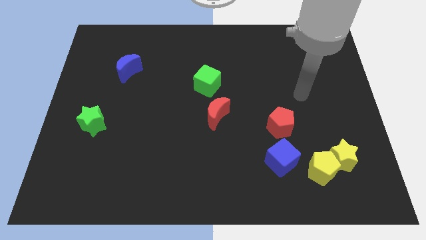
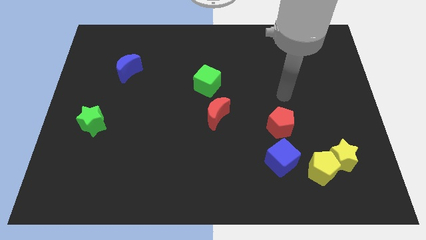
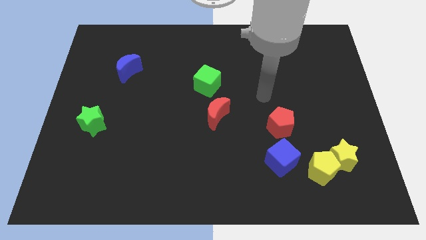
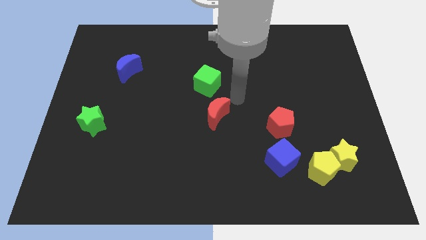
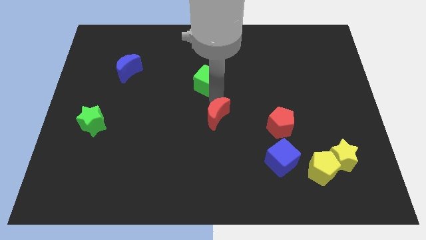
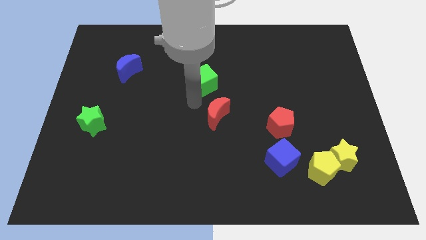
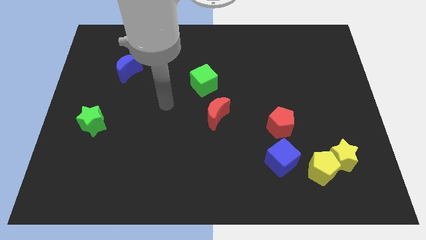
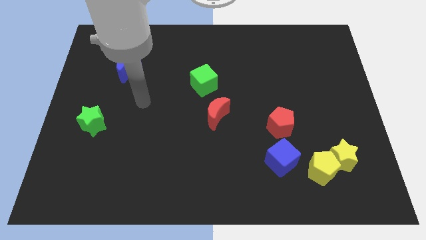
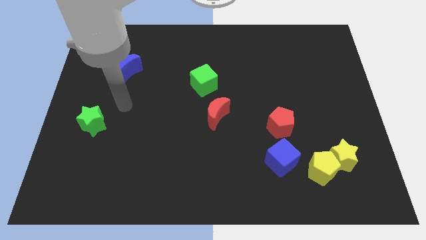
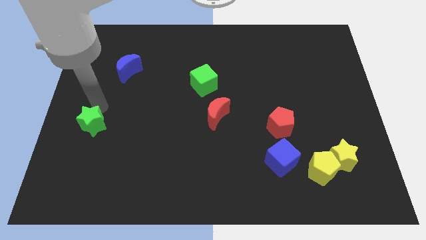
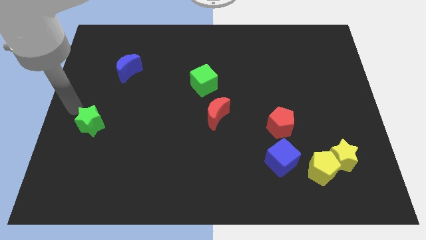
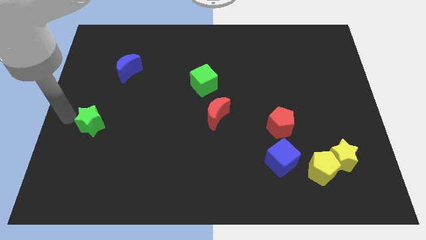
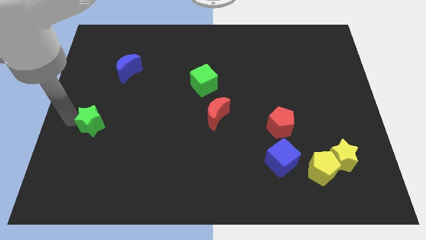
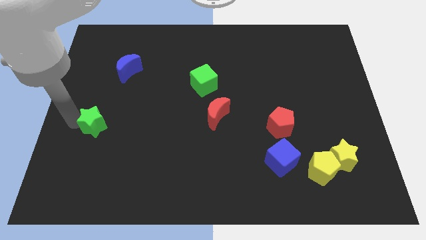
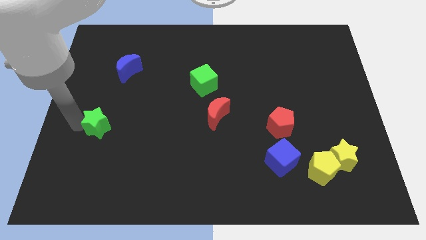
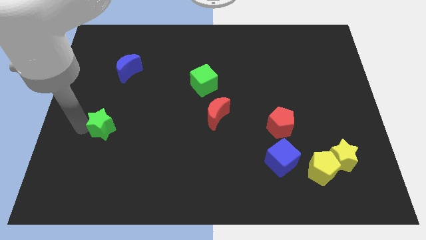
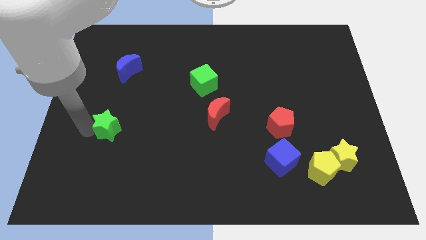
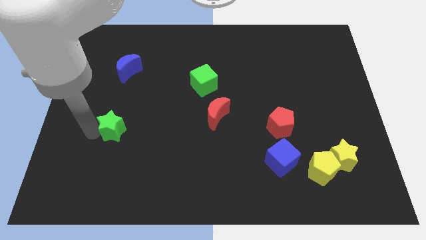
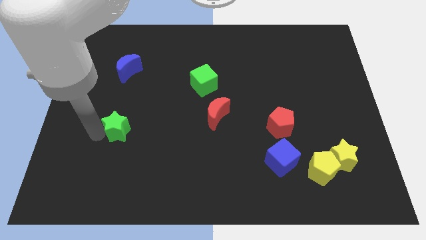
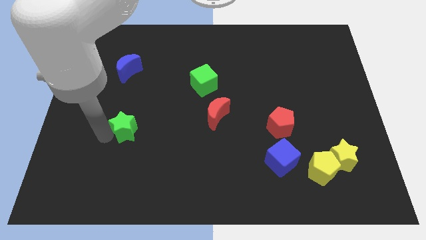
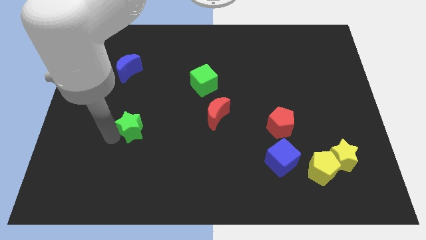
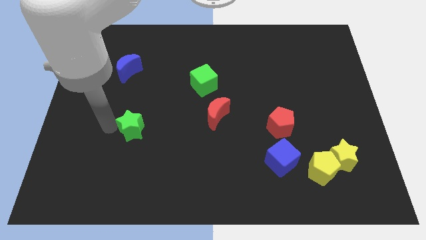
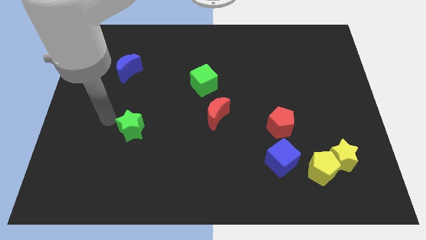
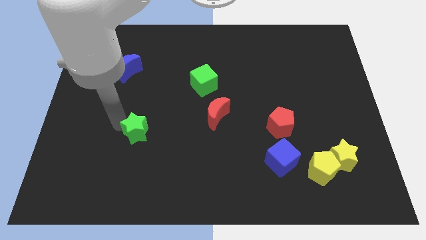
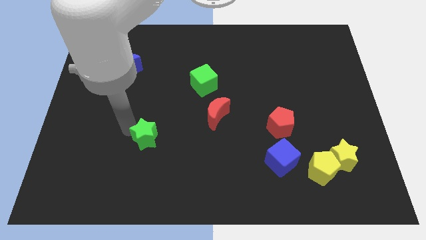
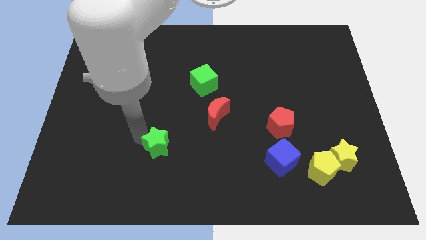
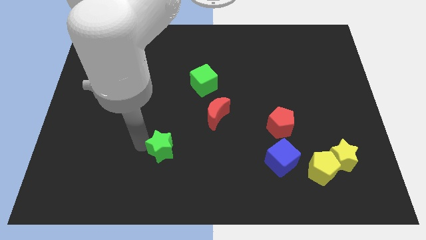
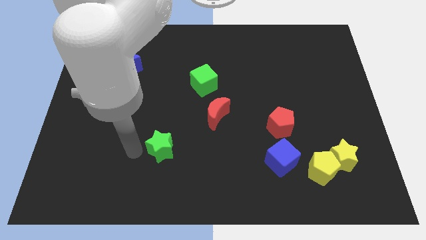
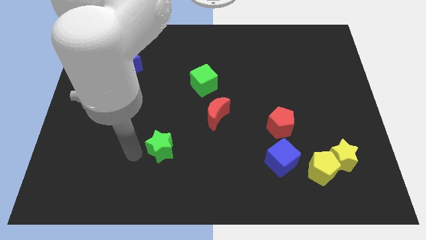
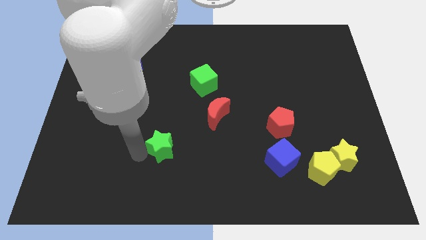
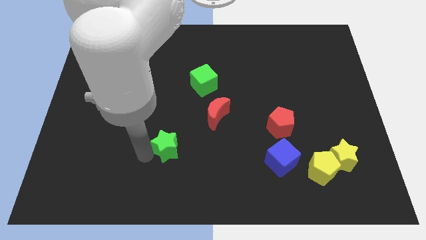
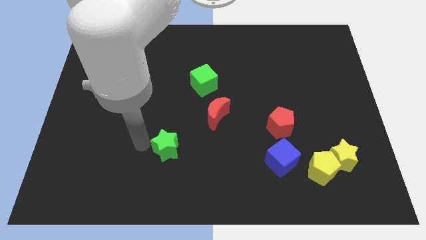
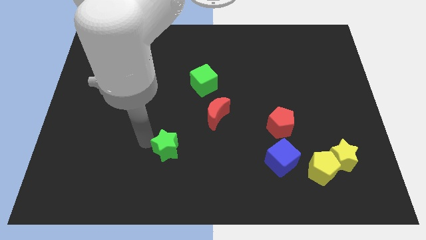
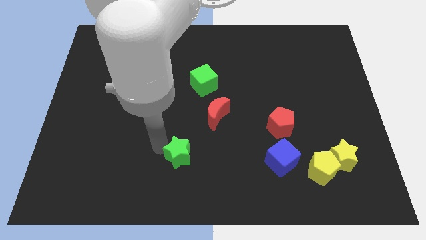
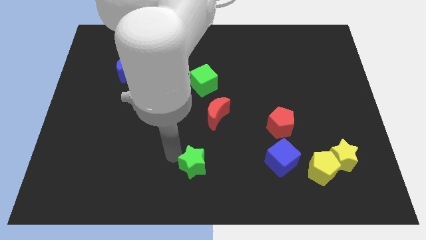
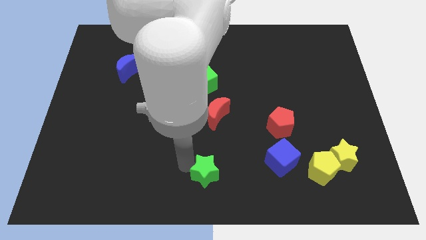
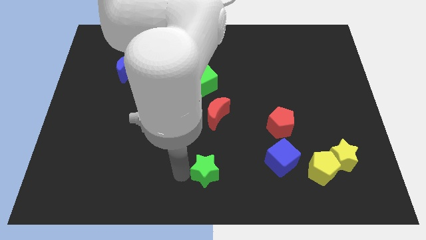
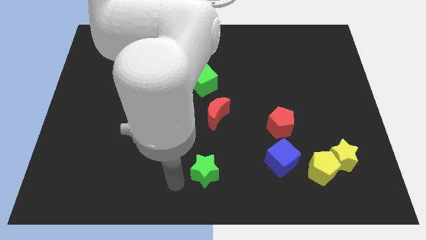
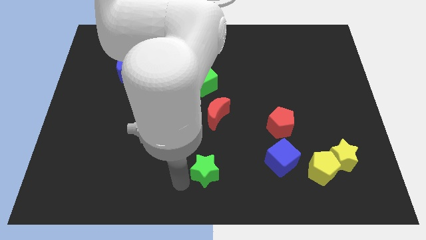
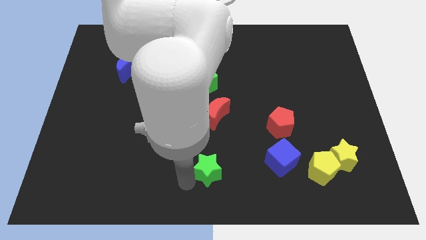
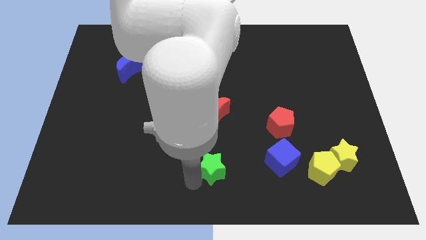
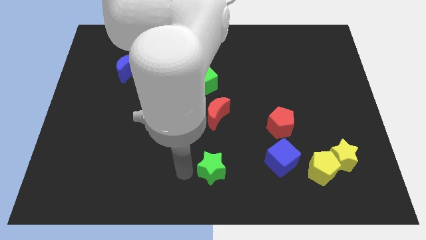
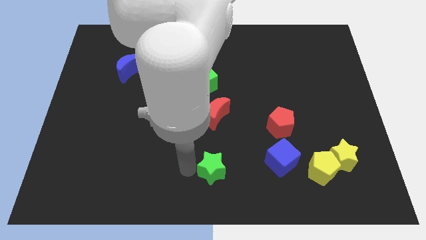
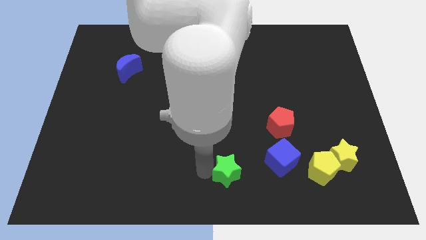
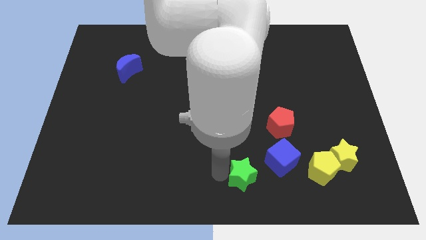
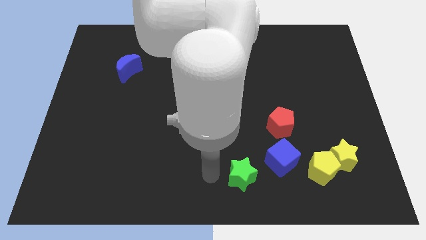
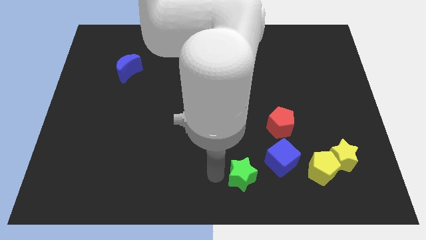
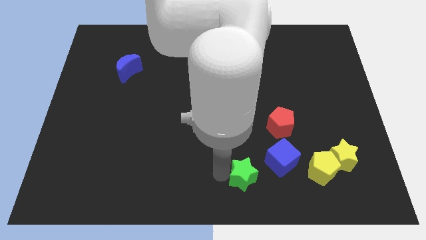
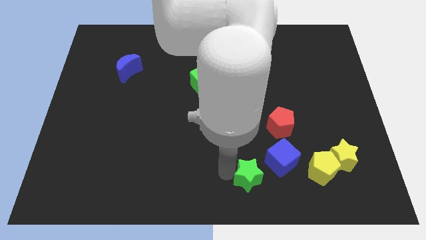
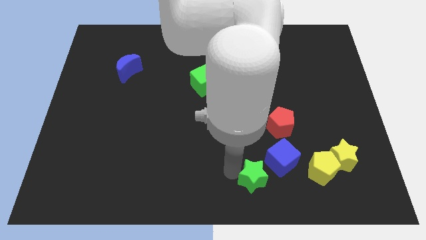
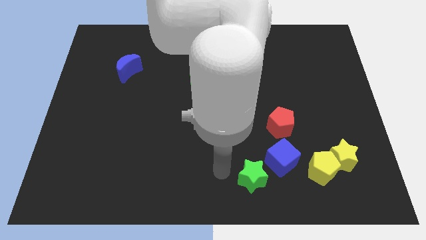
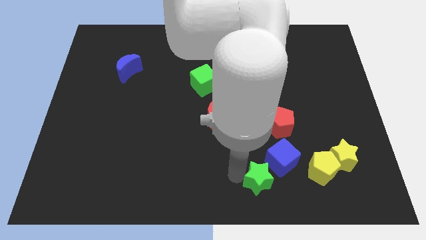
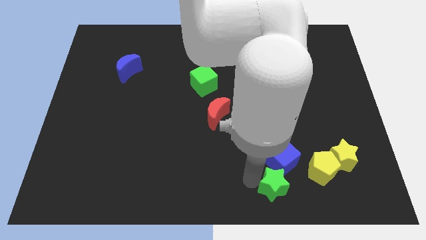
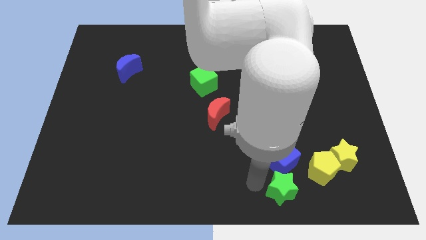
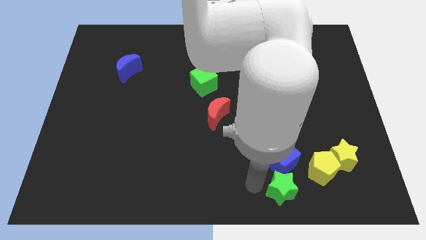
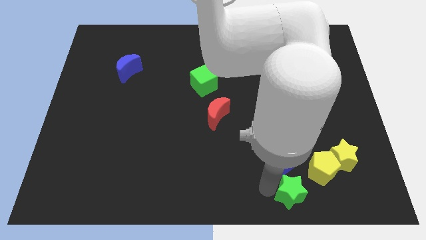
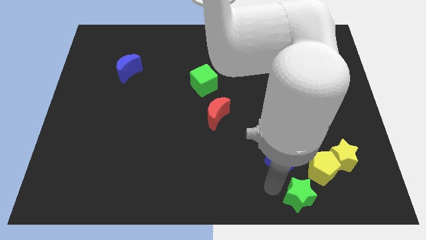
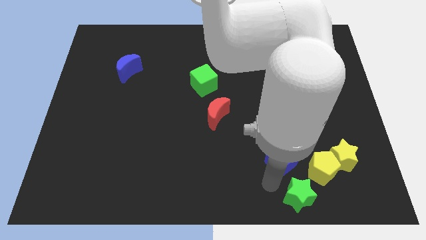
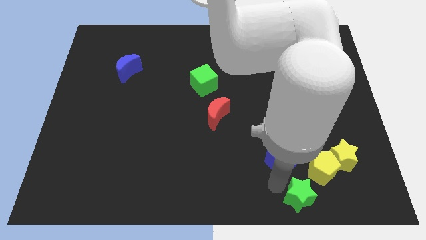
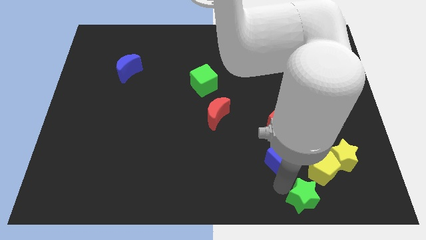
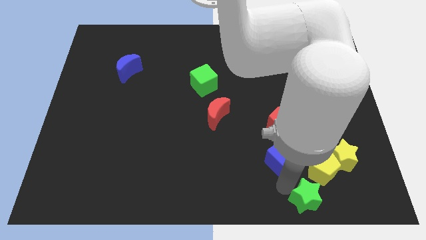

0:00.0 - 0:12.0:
put the green star to the bottom left side of the yellow star

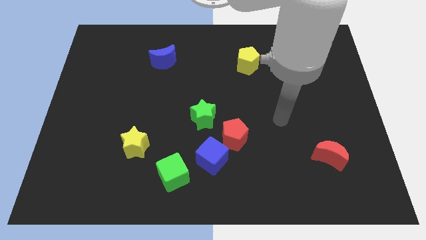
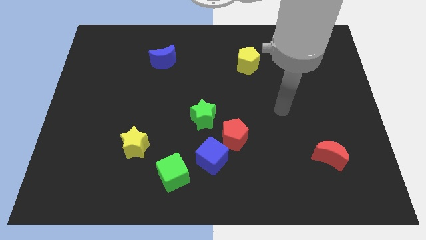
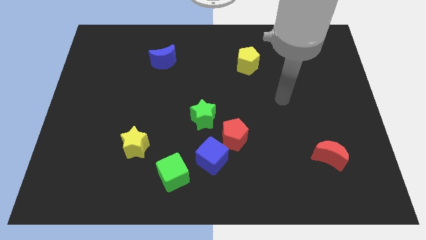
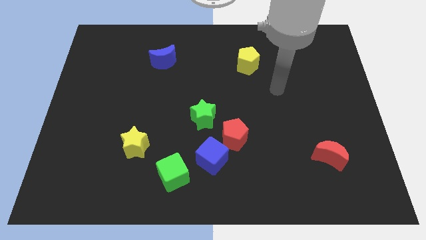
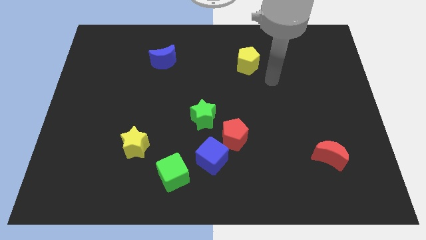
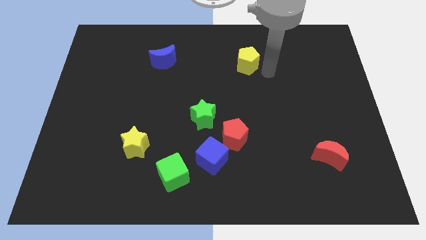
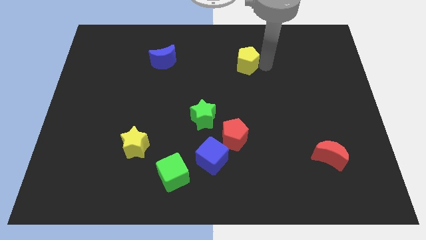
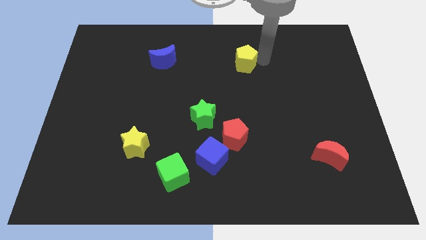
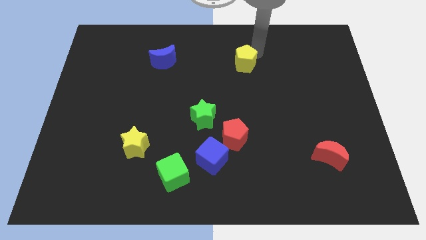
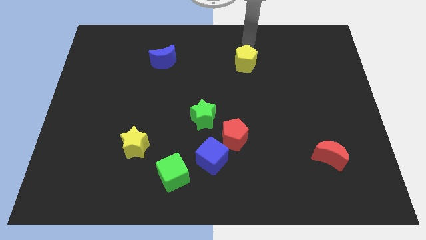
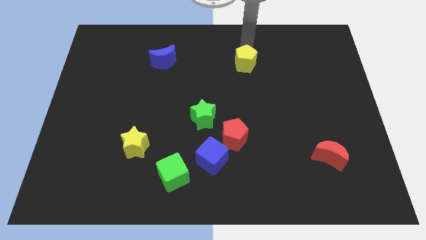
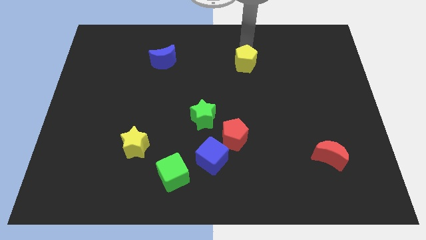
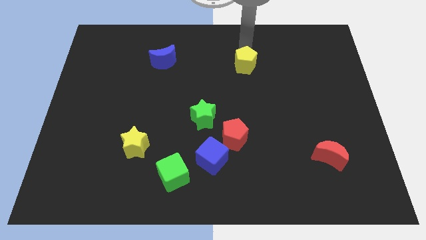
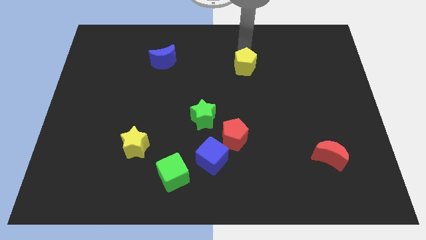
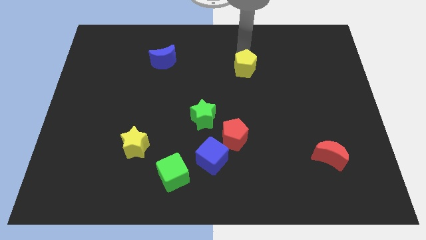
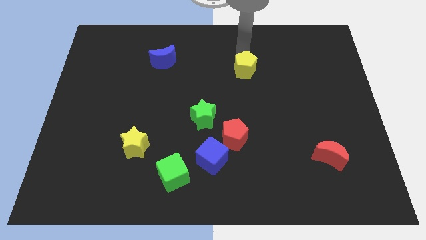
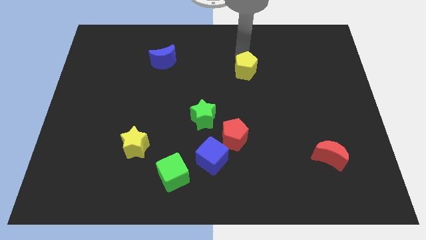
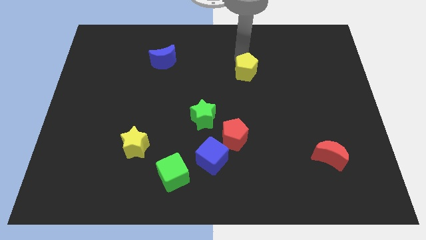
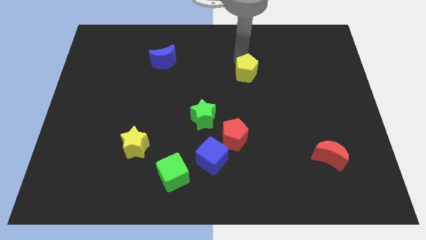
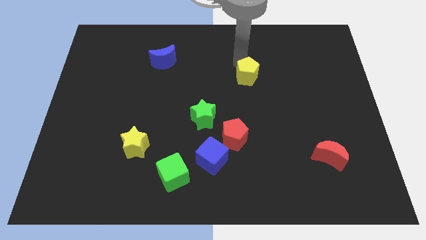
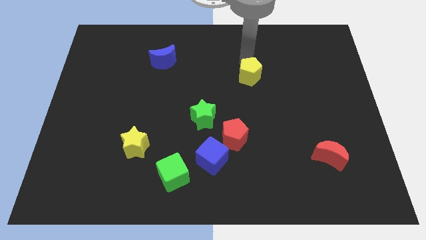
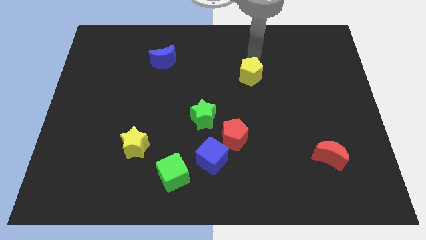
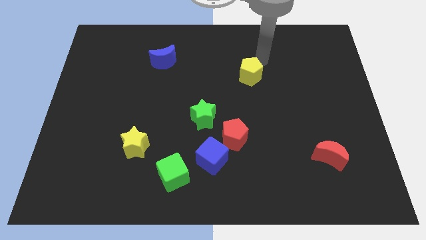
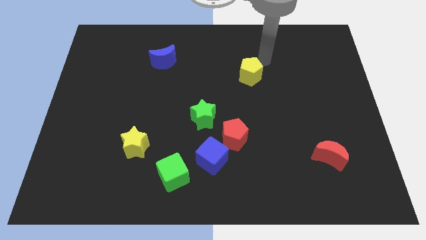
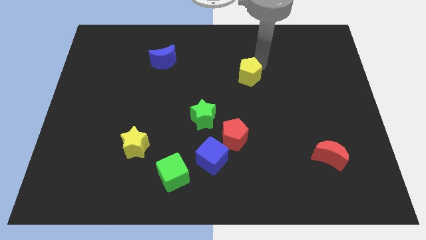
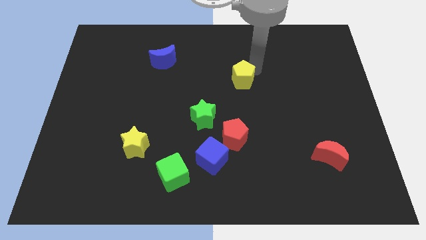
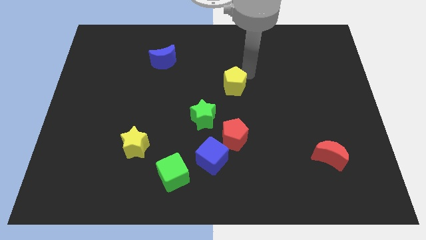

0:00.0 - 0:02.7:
put the yellow pentagon to the top right side of the green star
